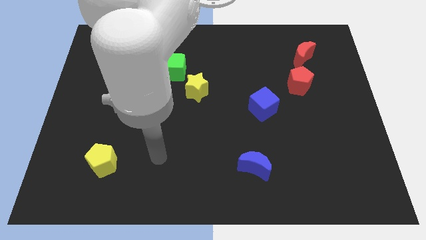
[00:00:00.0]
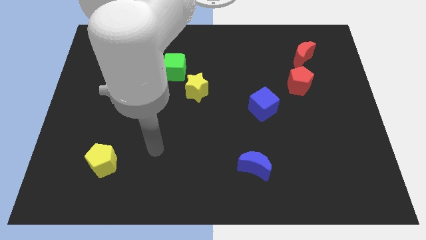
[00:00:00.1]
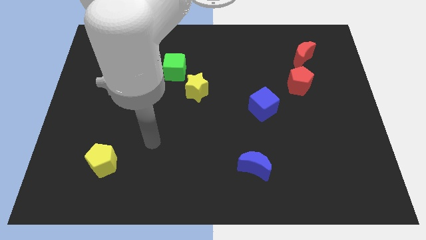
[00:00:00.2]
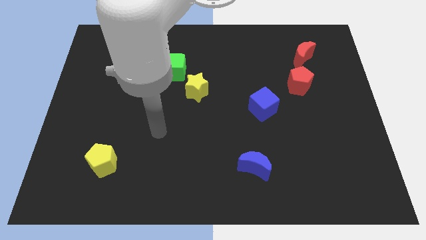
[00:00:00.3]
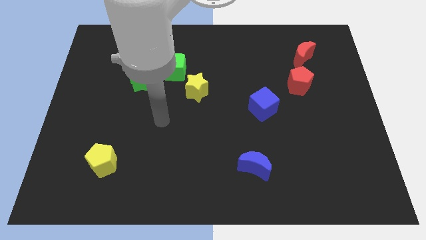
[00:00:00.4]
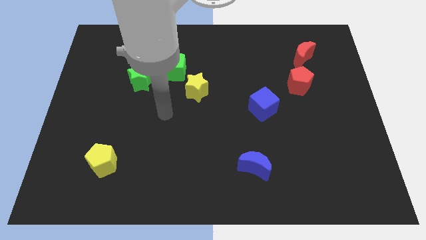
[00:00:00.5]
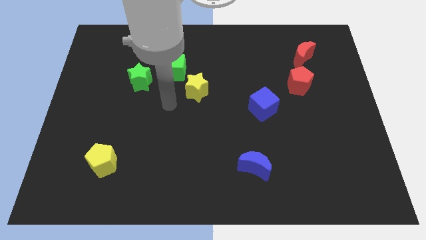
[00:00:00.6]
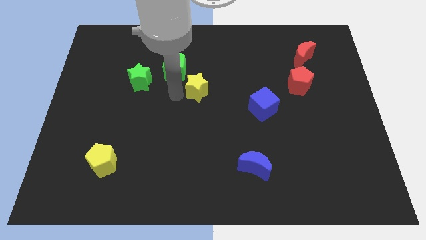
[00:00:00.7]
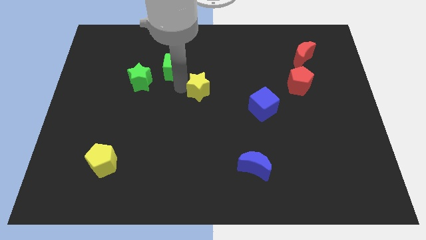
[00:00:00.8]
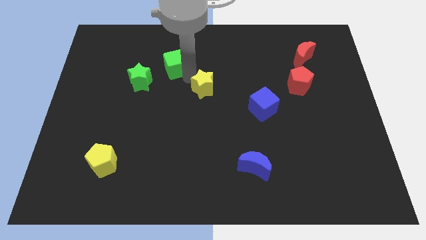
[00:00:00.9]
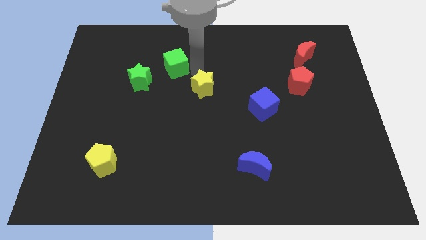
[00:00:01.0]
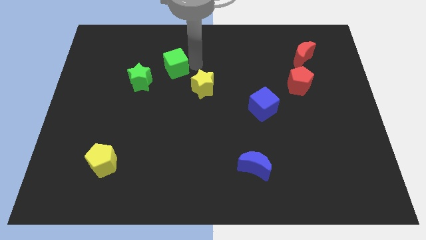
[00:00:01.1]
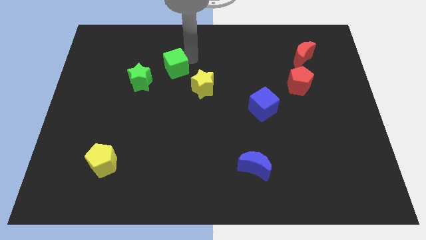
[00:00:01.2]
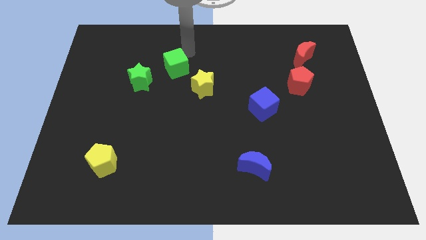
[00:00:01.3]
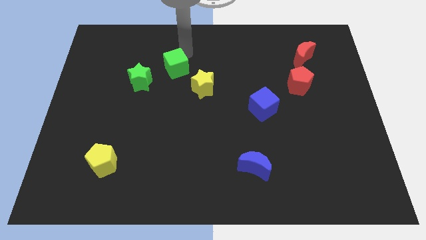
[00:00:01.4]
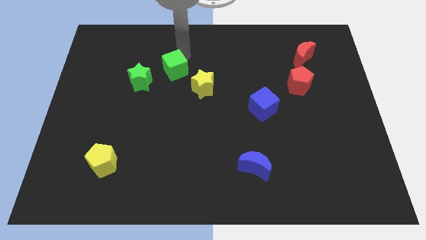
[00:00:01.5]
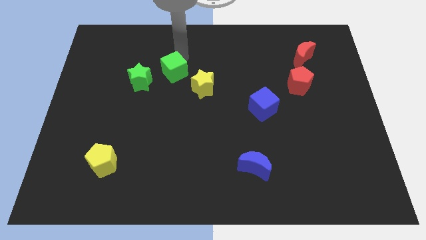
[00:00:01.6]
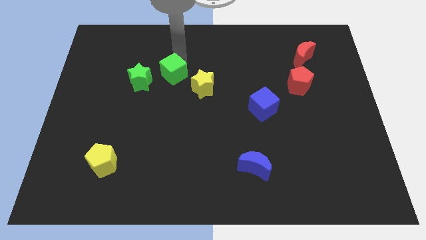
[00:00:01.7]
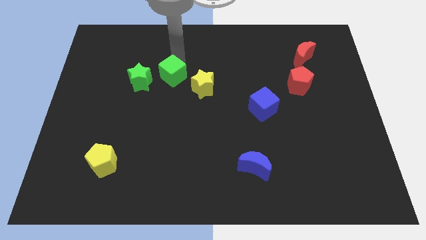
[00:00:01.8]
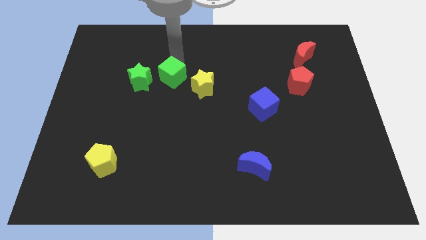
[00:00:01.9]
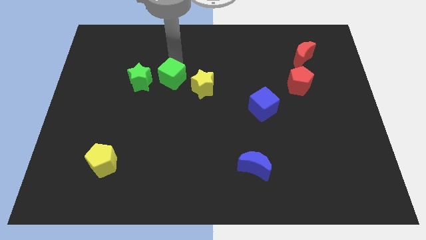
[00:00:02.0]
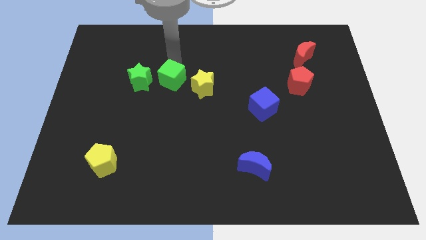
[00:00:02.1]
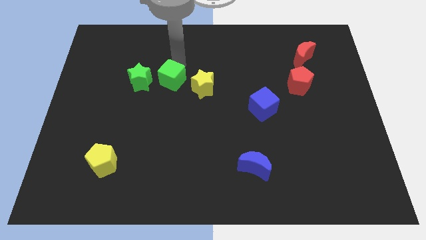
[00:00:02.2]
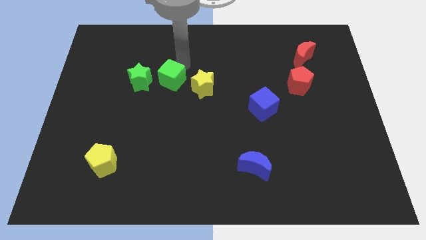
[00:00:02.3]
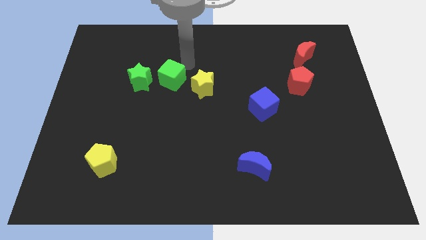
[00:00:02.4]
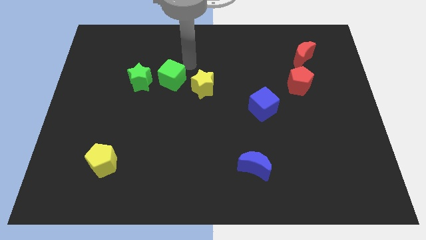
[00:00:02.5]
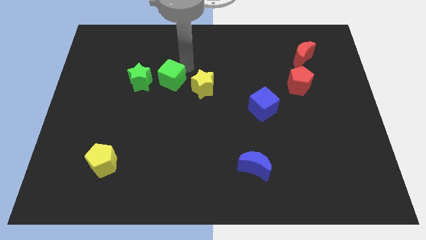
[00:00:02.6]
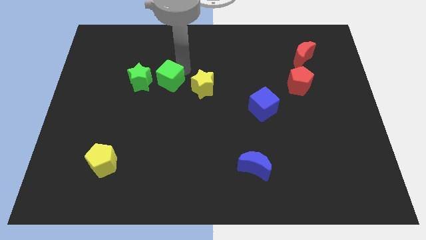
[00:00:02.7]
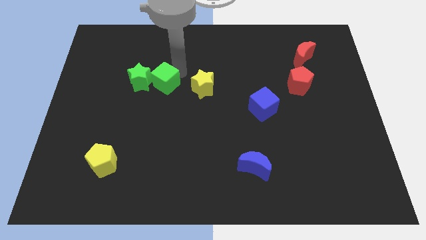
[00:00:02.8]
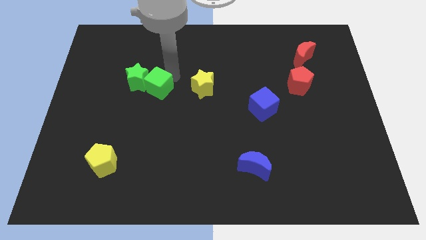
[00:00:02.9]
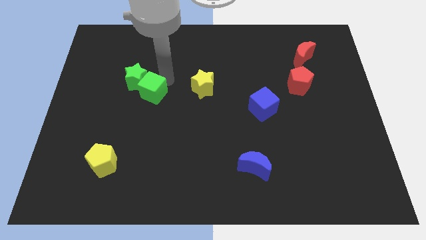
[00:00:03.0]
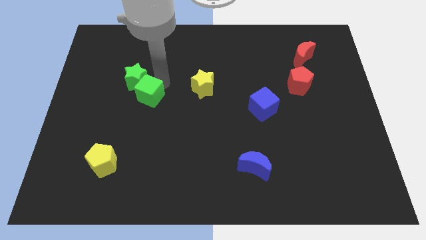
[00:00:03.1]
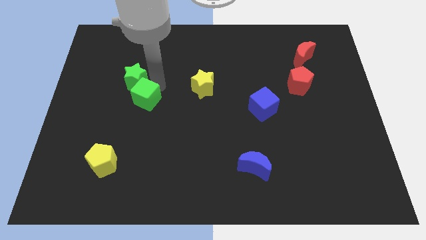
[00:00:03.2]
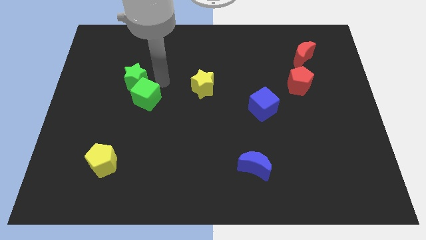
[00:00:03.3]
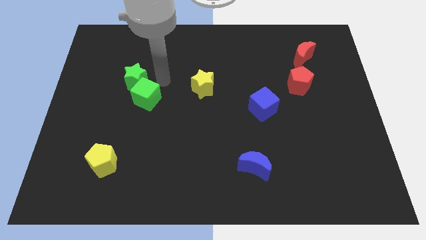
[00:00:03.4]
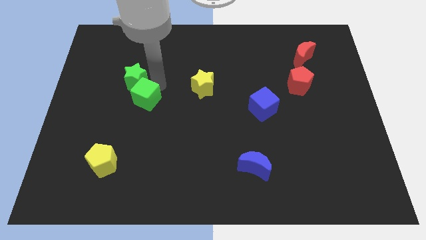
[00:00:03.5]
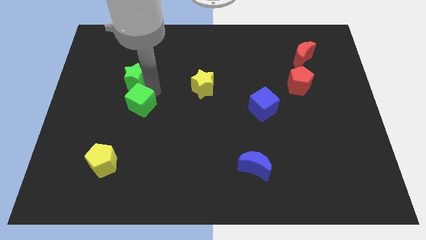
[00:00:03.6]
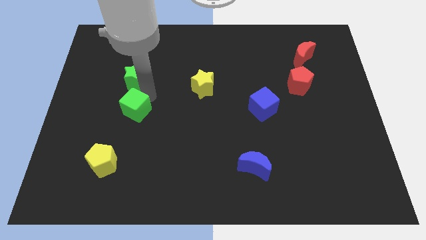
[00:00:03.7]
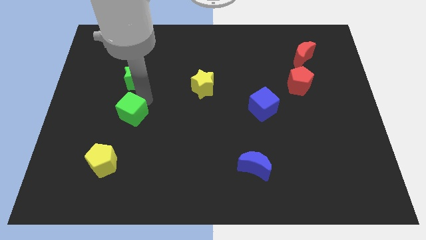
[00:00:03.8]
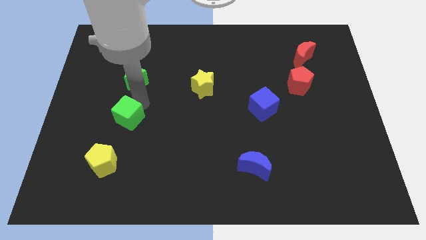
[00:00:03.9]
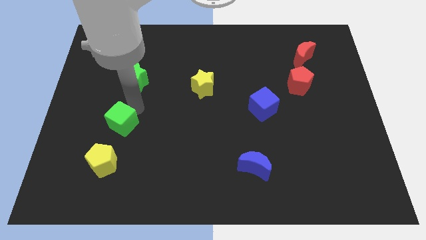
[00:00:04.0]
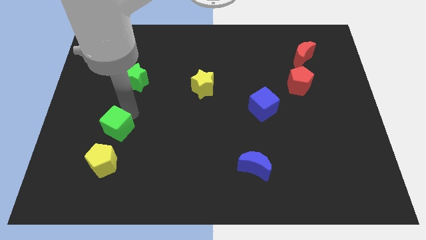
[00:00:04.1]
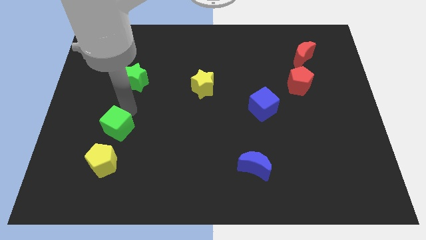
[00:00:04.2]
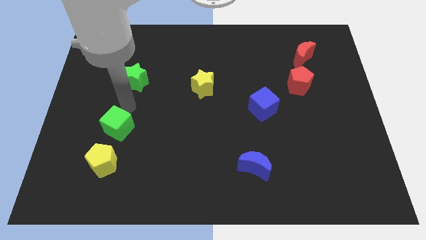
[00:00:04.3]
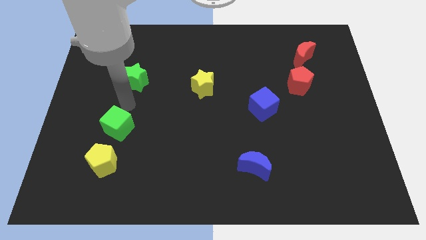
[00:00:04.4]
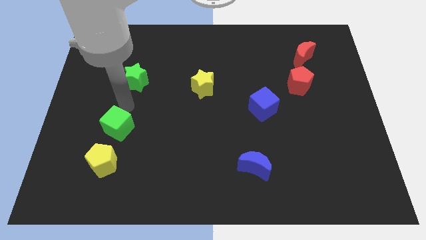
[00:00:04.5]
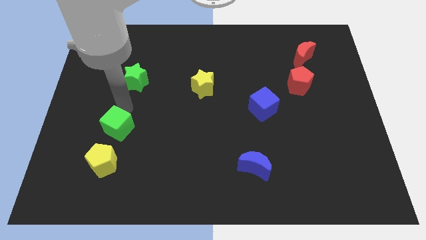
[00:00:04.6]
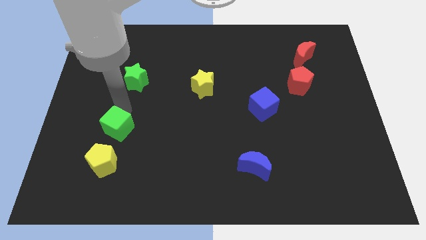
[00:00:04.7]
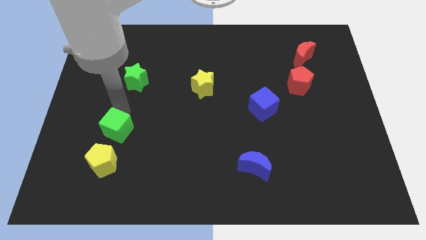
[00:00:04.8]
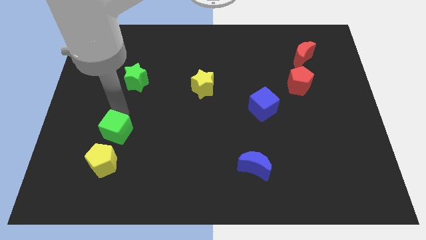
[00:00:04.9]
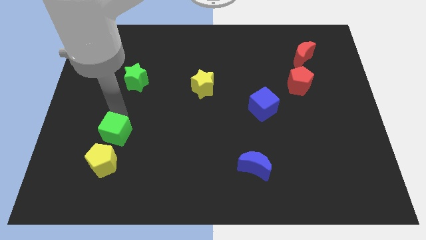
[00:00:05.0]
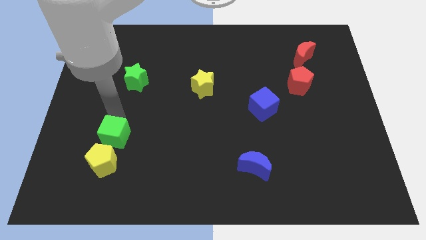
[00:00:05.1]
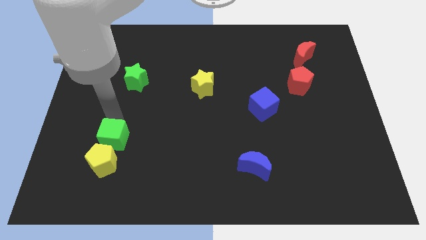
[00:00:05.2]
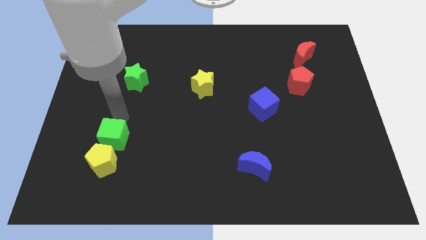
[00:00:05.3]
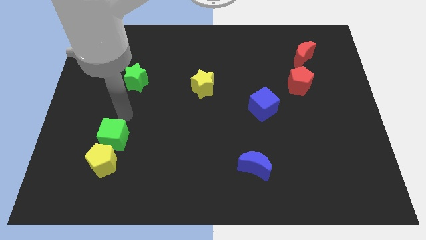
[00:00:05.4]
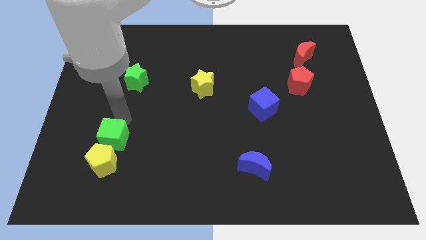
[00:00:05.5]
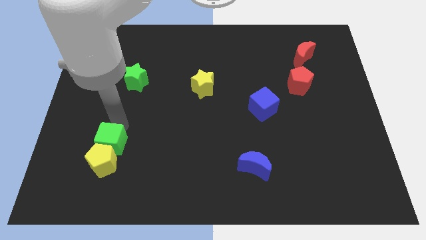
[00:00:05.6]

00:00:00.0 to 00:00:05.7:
push the green cube to the yellow pentagon
